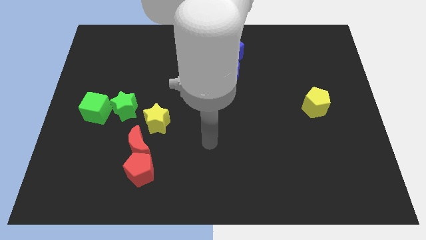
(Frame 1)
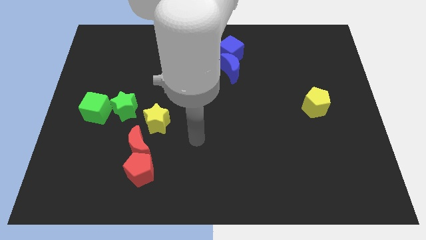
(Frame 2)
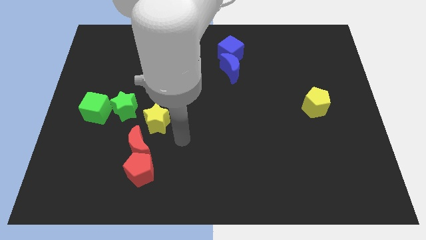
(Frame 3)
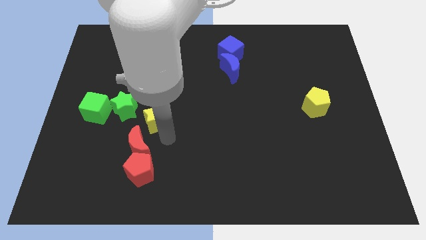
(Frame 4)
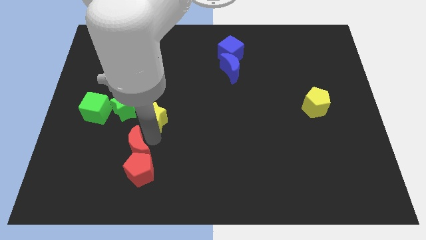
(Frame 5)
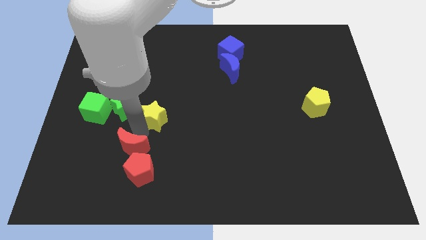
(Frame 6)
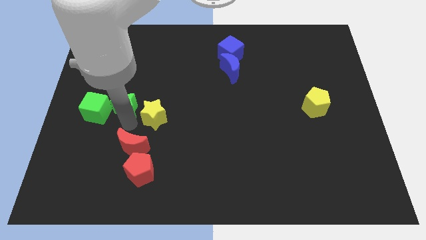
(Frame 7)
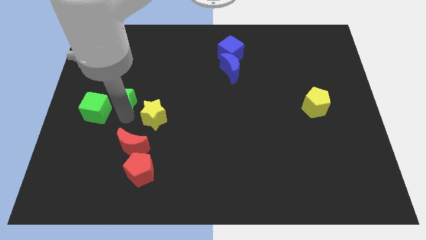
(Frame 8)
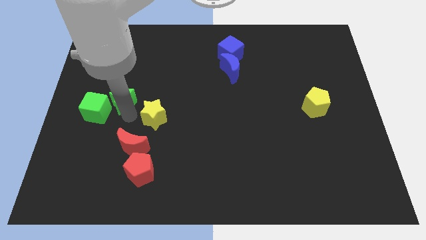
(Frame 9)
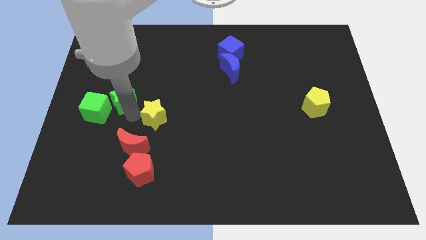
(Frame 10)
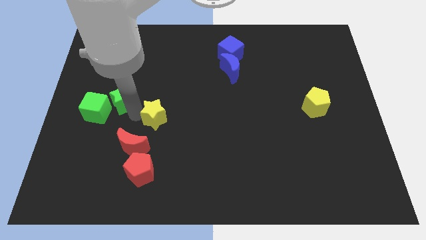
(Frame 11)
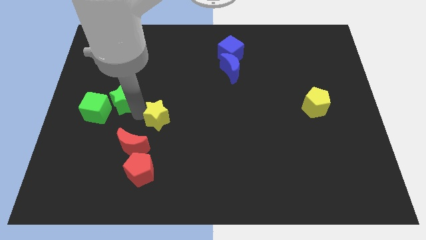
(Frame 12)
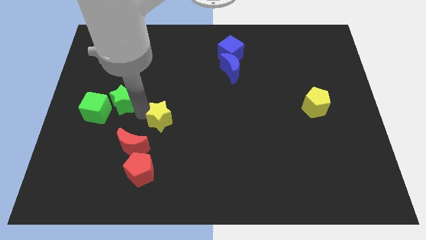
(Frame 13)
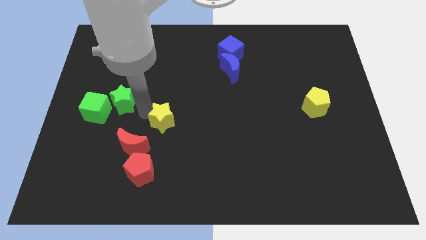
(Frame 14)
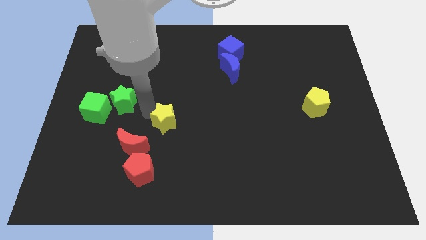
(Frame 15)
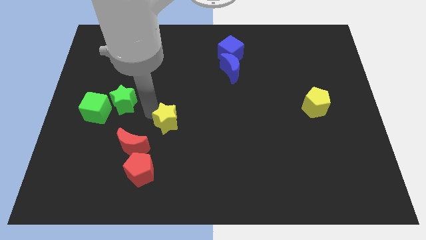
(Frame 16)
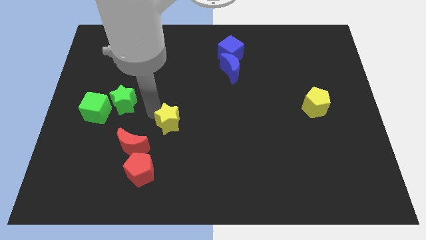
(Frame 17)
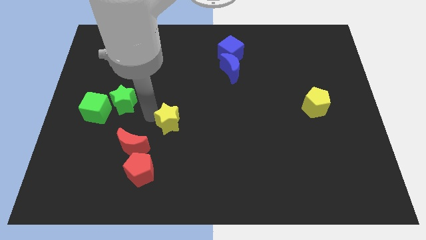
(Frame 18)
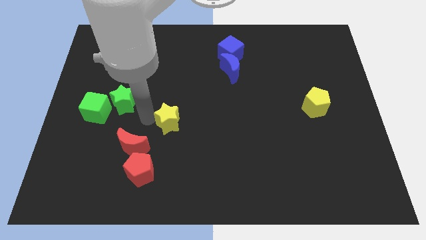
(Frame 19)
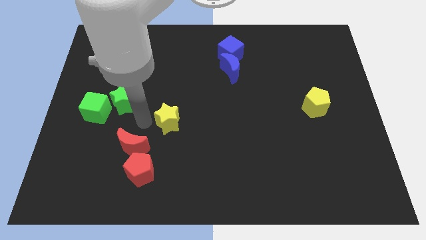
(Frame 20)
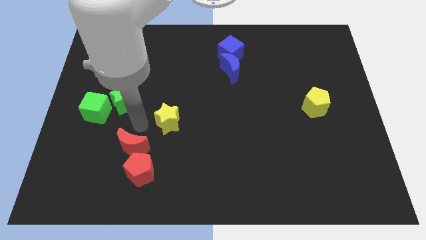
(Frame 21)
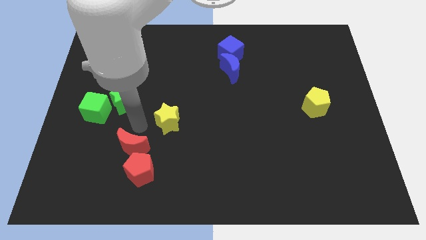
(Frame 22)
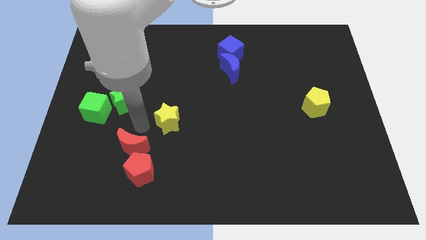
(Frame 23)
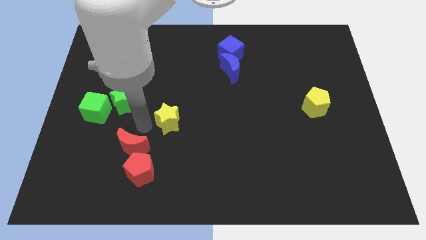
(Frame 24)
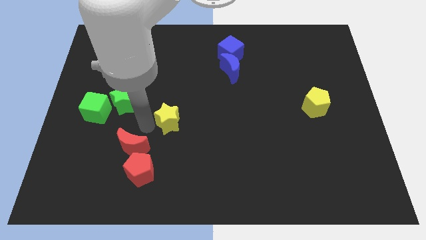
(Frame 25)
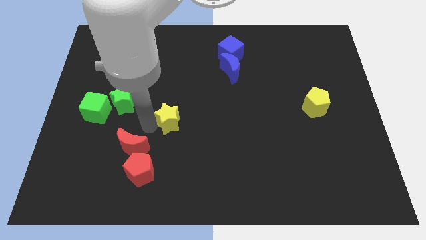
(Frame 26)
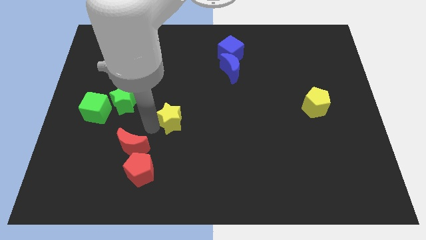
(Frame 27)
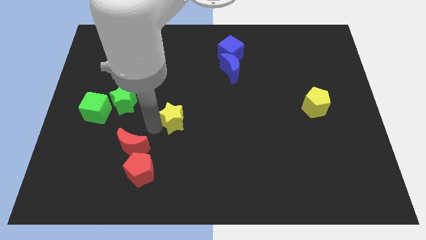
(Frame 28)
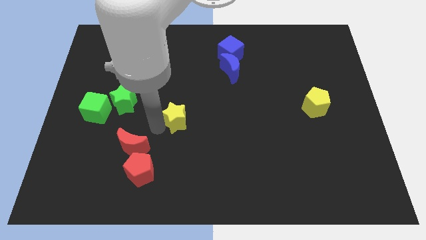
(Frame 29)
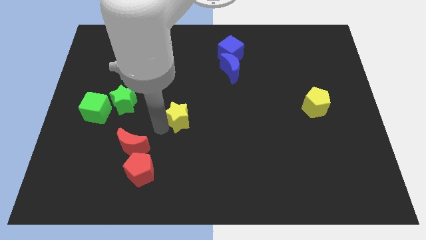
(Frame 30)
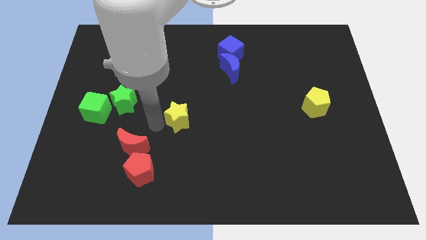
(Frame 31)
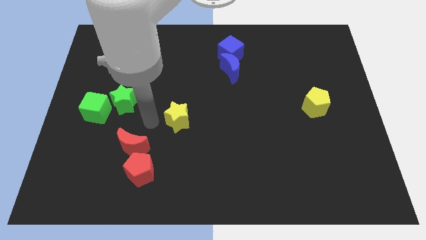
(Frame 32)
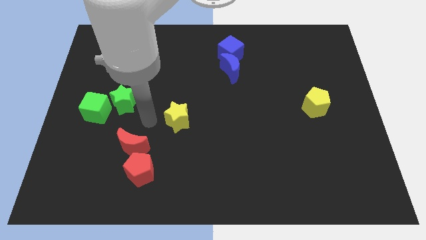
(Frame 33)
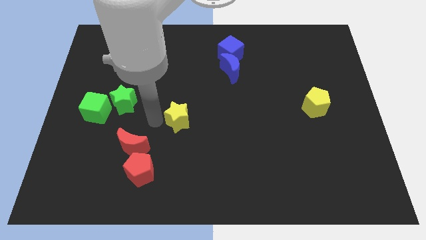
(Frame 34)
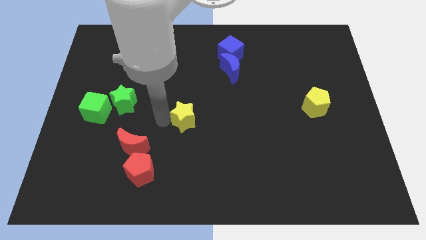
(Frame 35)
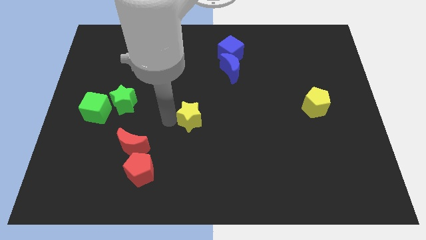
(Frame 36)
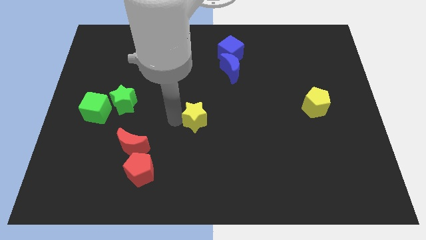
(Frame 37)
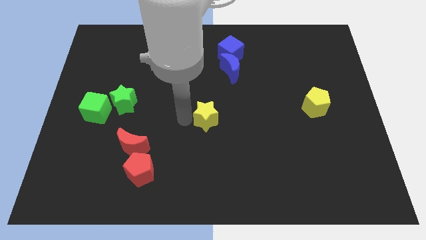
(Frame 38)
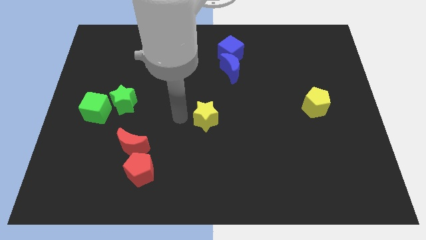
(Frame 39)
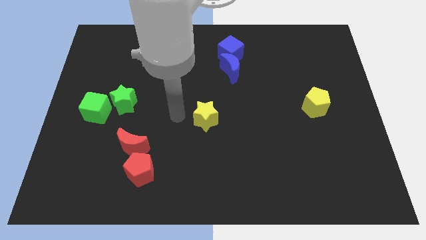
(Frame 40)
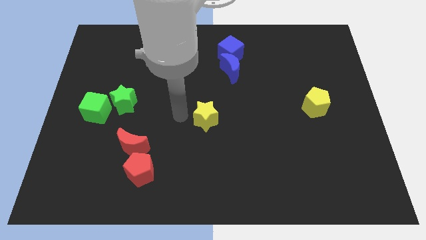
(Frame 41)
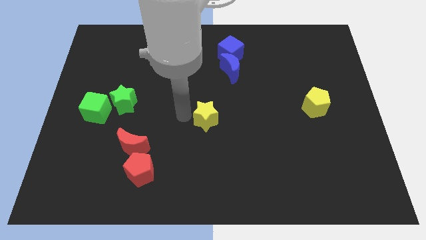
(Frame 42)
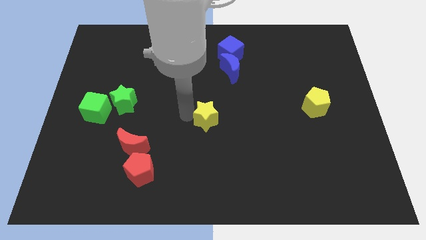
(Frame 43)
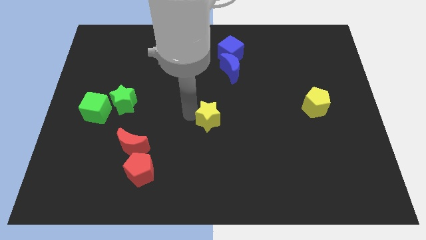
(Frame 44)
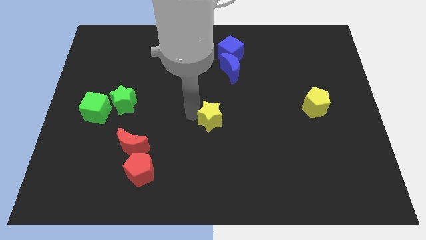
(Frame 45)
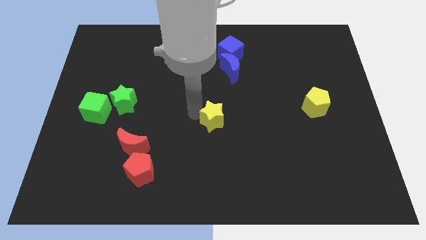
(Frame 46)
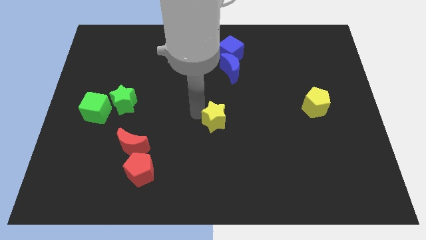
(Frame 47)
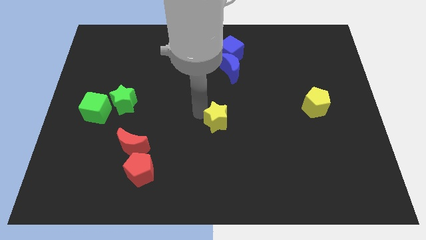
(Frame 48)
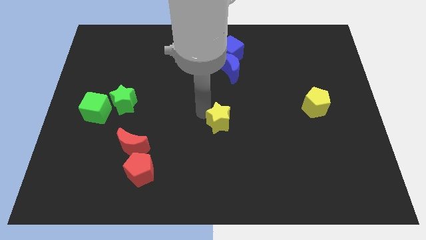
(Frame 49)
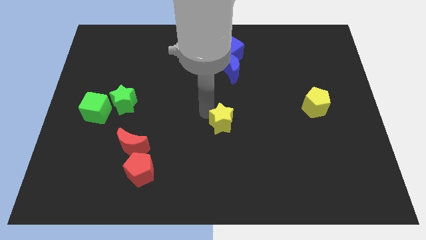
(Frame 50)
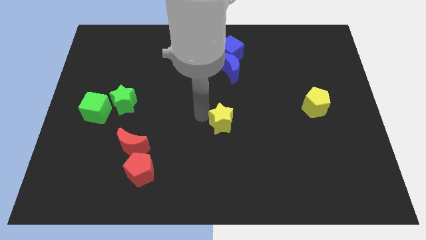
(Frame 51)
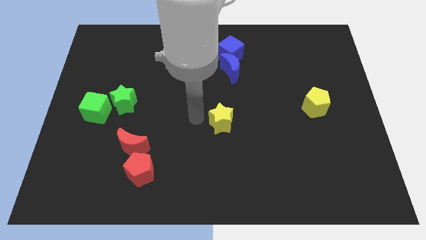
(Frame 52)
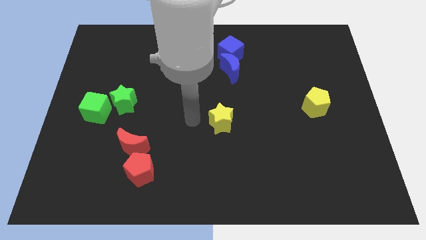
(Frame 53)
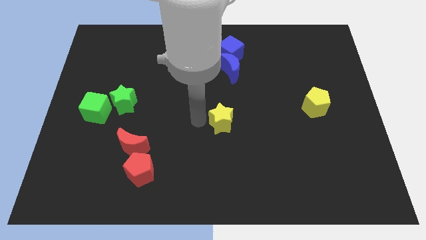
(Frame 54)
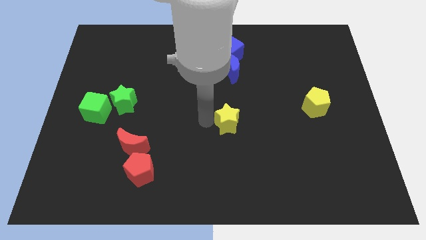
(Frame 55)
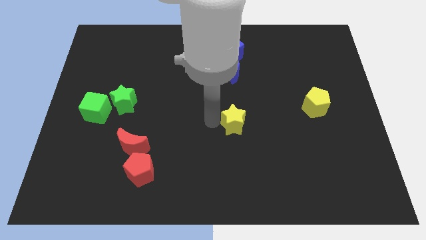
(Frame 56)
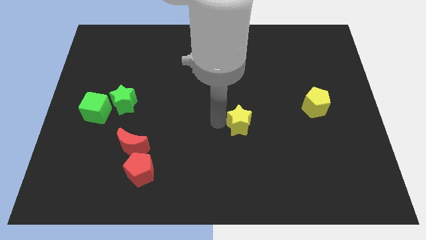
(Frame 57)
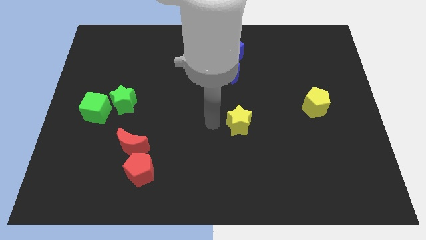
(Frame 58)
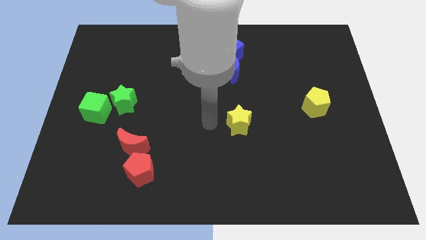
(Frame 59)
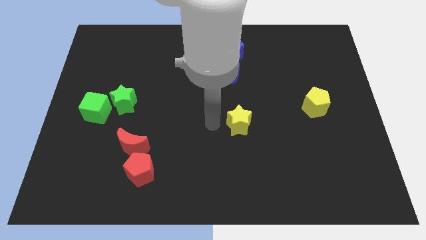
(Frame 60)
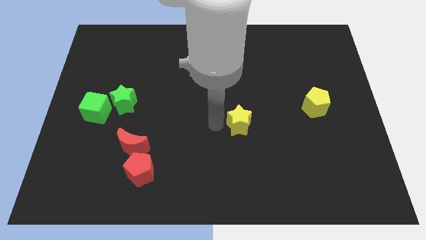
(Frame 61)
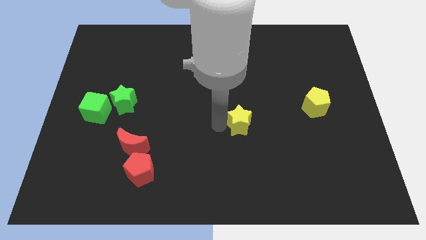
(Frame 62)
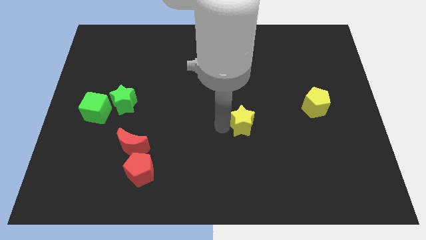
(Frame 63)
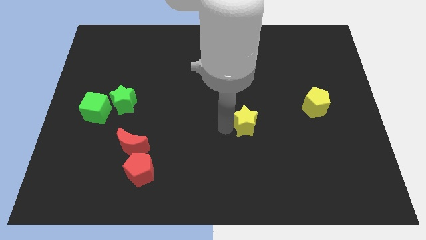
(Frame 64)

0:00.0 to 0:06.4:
move the yellow star right

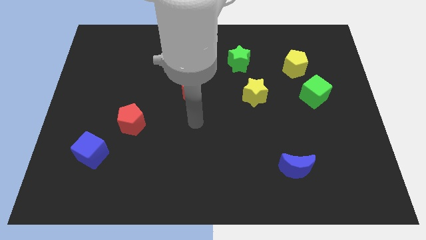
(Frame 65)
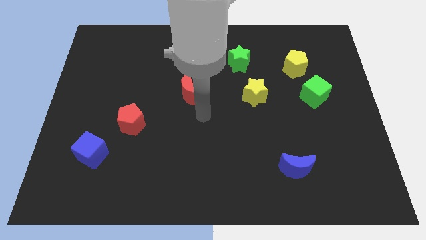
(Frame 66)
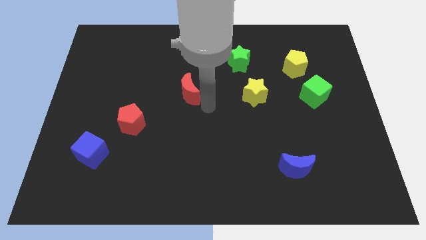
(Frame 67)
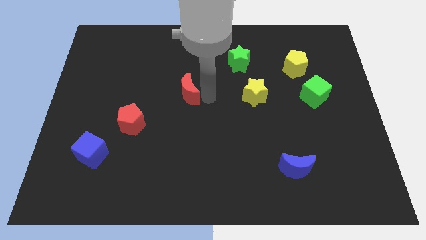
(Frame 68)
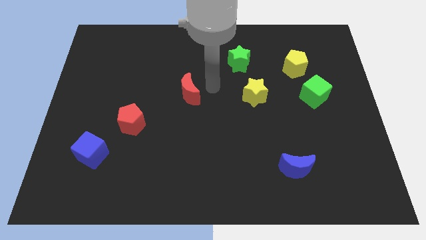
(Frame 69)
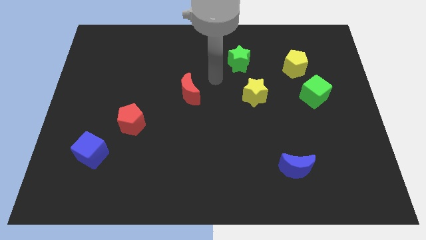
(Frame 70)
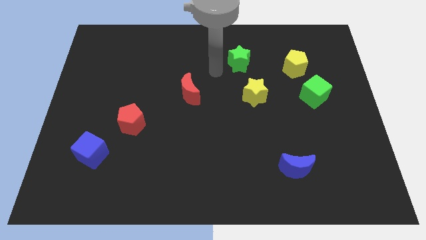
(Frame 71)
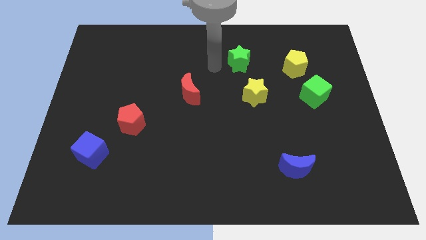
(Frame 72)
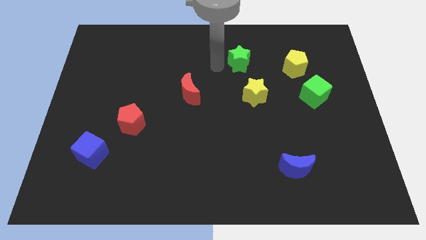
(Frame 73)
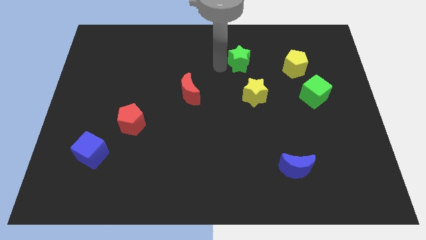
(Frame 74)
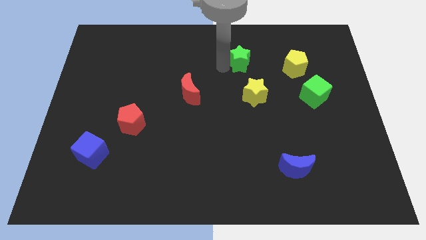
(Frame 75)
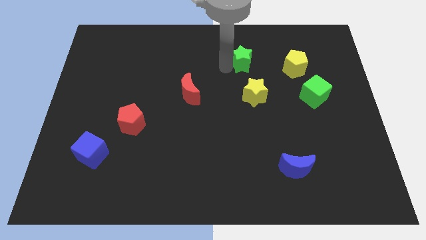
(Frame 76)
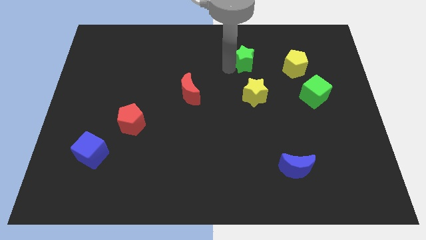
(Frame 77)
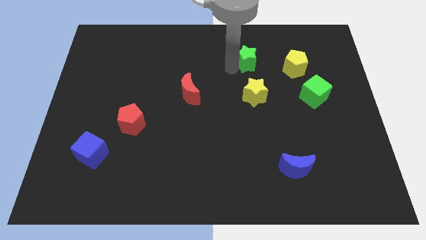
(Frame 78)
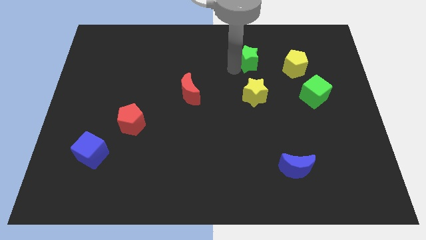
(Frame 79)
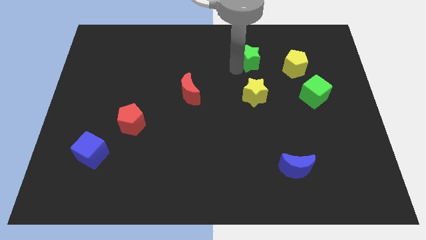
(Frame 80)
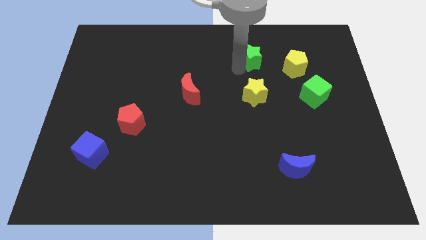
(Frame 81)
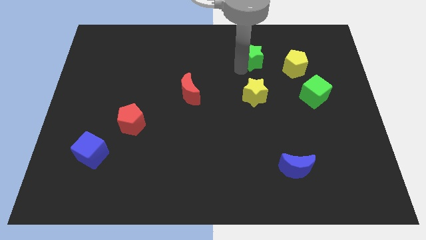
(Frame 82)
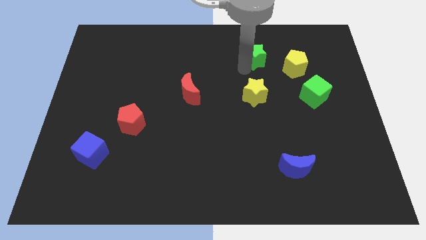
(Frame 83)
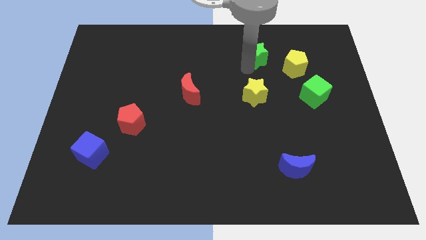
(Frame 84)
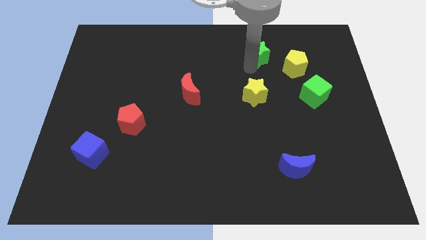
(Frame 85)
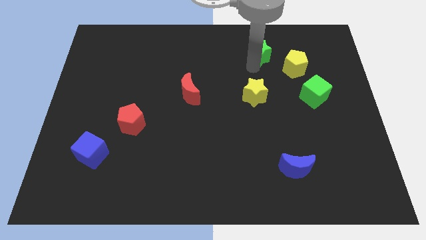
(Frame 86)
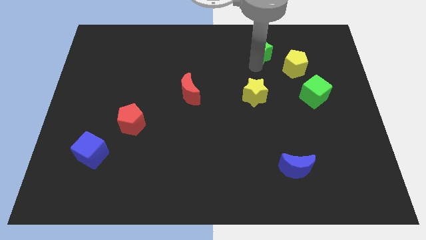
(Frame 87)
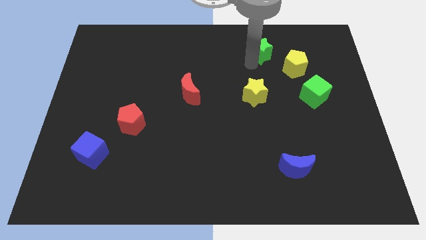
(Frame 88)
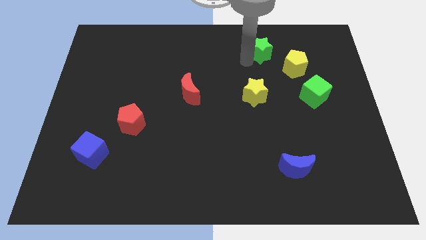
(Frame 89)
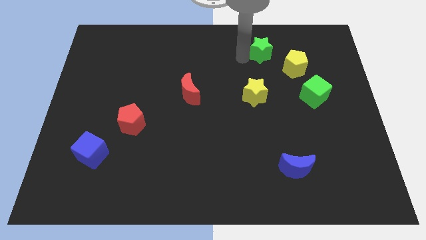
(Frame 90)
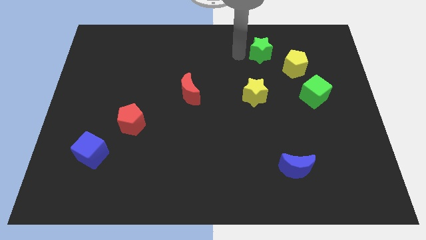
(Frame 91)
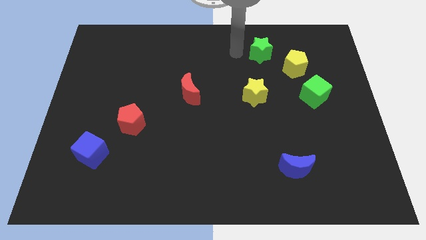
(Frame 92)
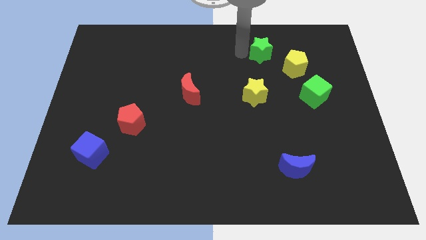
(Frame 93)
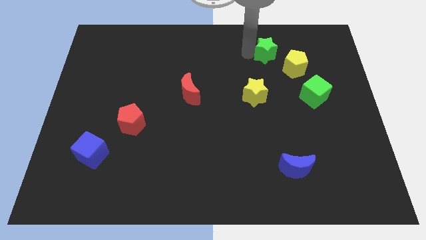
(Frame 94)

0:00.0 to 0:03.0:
slightly push the green star right
